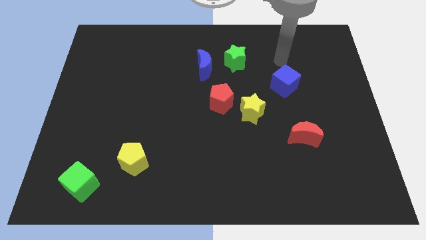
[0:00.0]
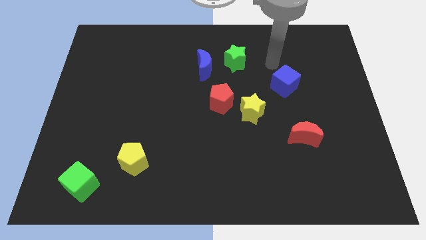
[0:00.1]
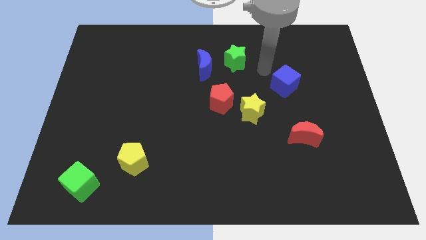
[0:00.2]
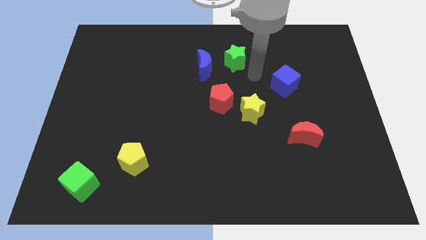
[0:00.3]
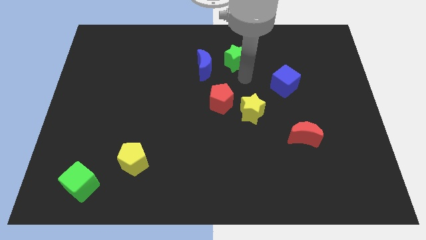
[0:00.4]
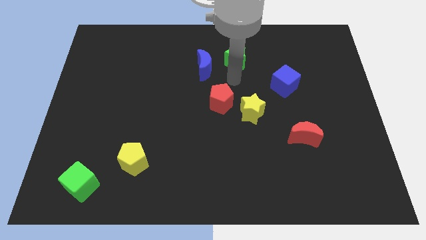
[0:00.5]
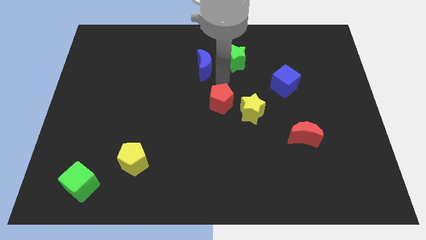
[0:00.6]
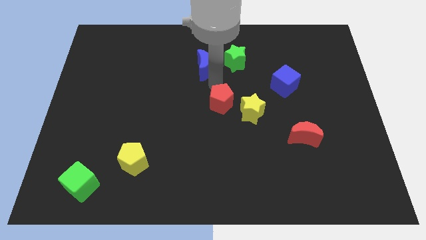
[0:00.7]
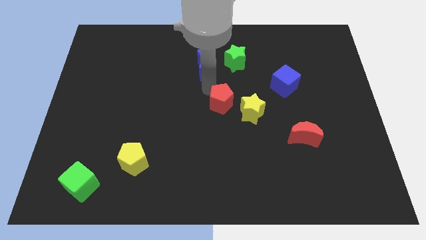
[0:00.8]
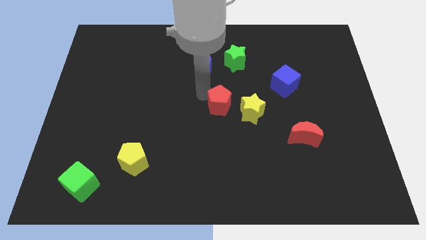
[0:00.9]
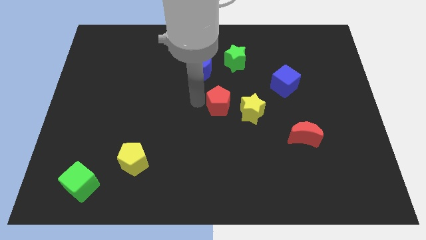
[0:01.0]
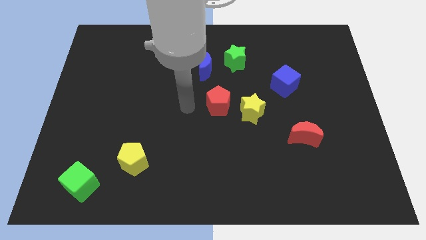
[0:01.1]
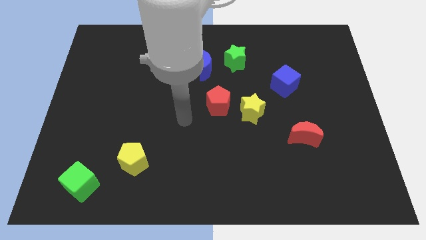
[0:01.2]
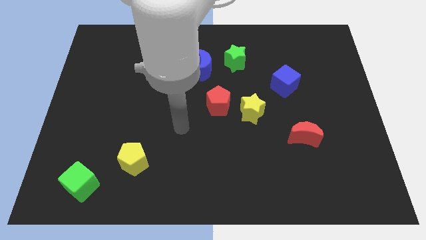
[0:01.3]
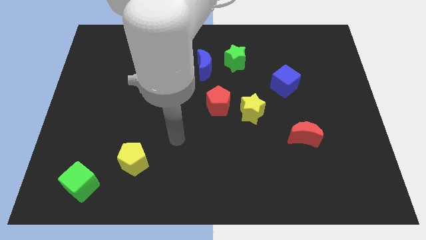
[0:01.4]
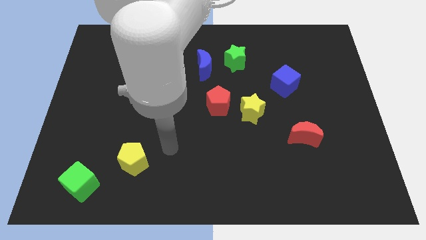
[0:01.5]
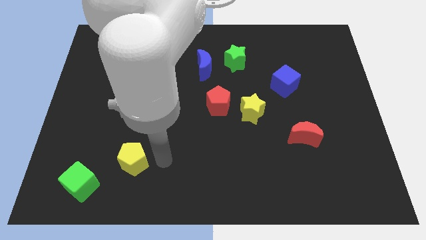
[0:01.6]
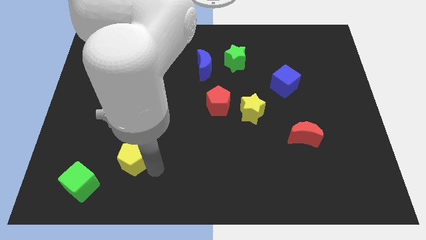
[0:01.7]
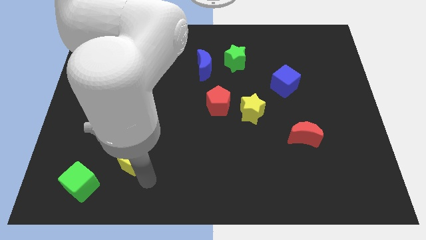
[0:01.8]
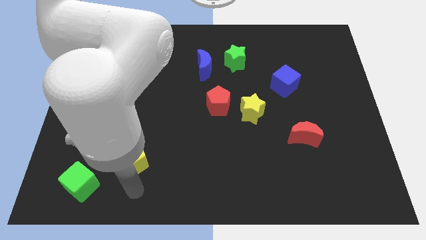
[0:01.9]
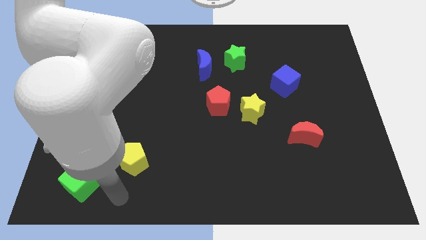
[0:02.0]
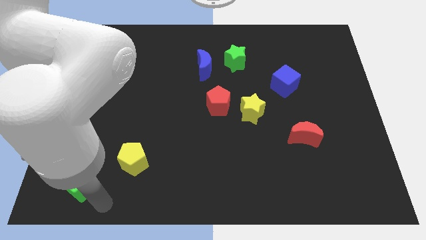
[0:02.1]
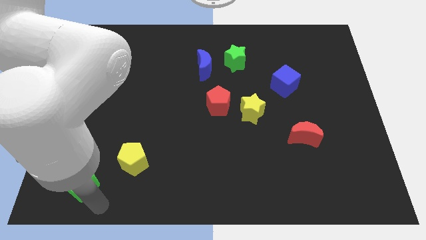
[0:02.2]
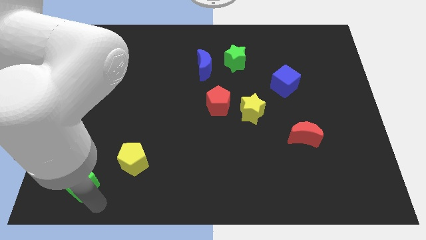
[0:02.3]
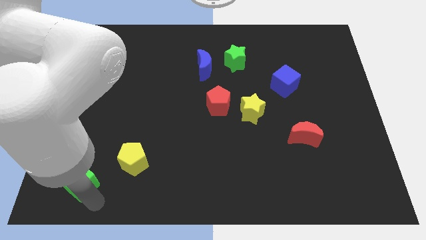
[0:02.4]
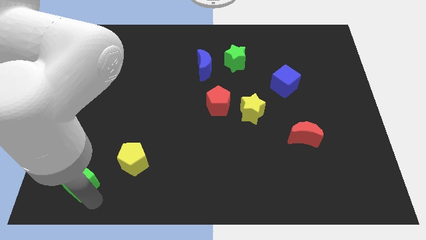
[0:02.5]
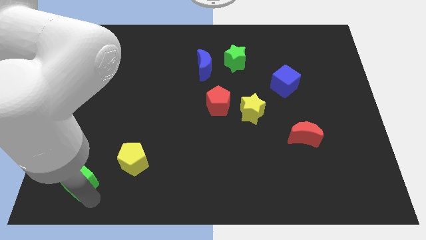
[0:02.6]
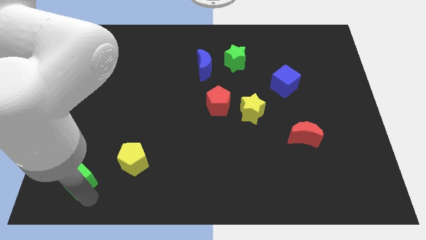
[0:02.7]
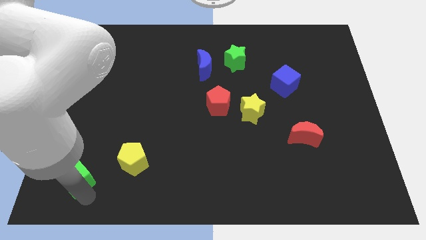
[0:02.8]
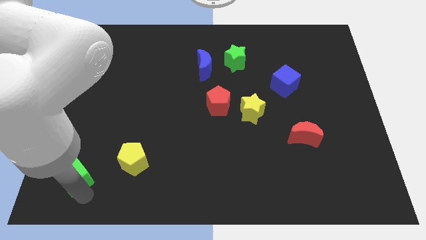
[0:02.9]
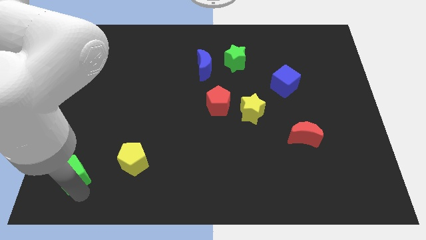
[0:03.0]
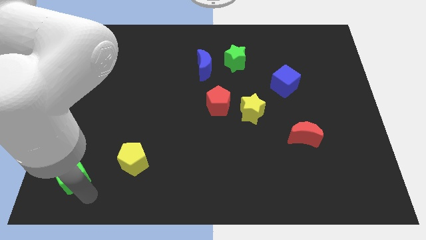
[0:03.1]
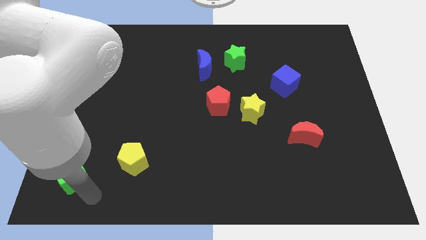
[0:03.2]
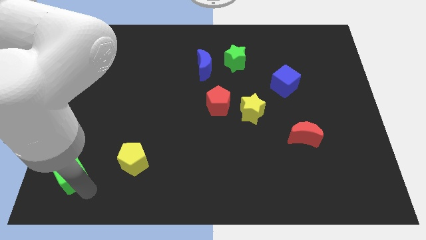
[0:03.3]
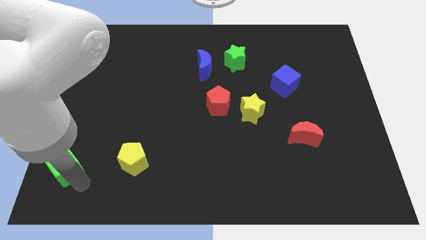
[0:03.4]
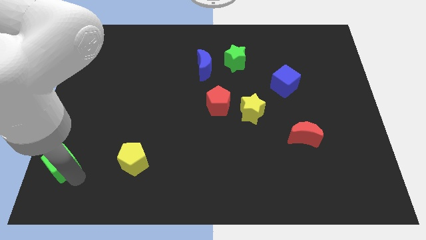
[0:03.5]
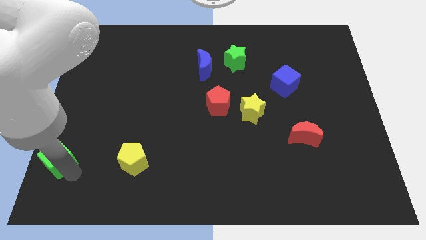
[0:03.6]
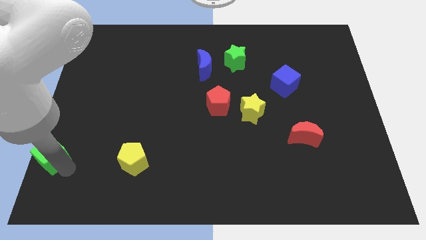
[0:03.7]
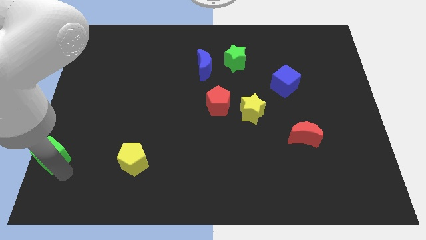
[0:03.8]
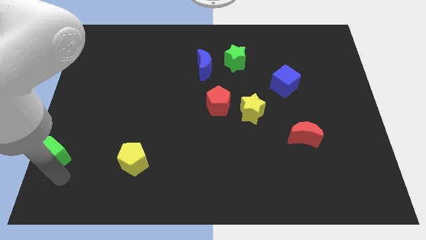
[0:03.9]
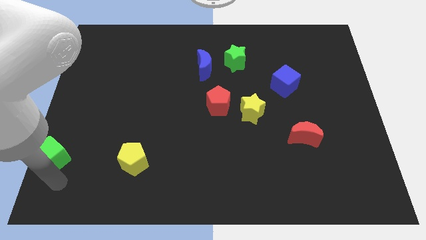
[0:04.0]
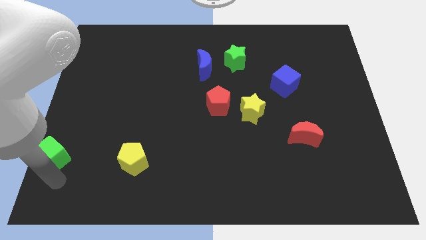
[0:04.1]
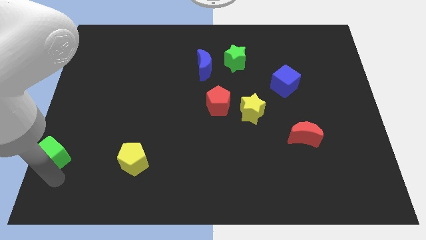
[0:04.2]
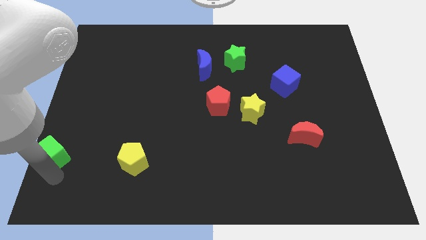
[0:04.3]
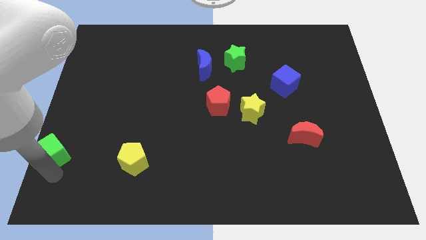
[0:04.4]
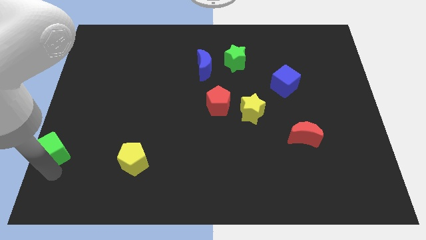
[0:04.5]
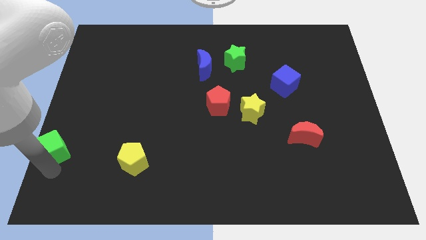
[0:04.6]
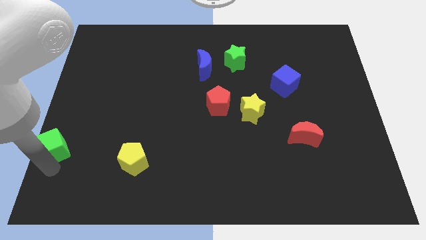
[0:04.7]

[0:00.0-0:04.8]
move the green cube to the center left

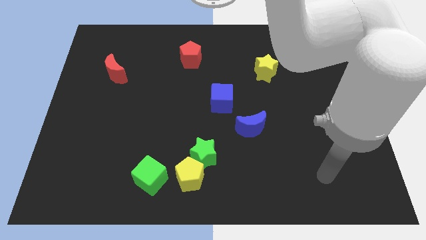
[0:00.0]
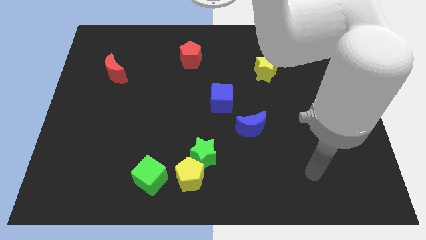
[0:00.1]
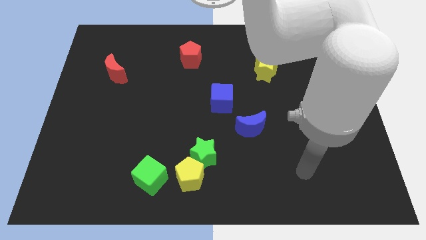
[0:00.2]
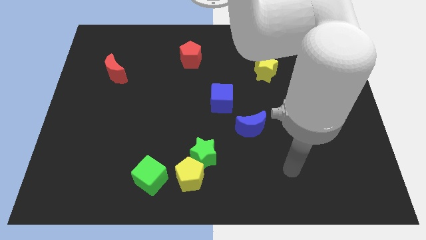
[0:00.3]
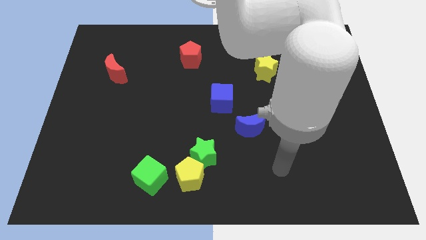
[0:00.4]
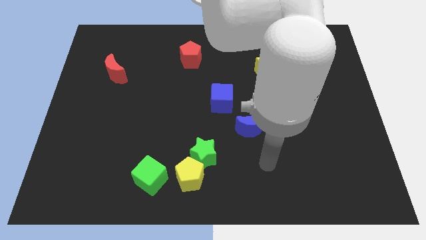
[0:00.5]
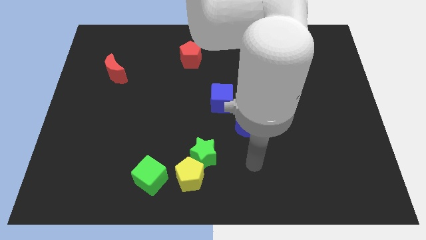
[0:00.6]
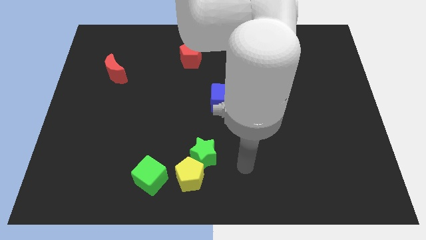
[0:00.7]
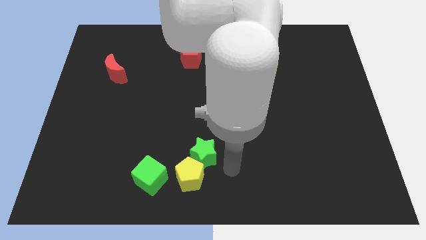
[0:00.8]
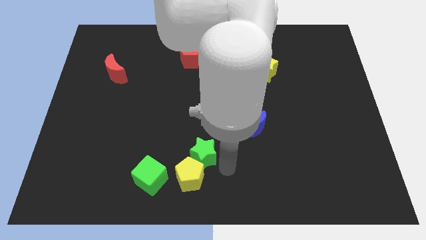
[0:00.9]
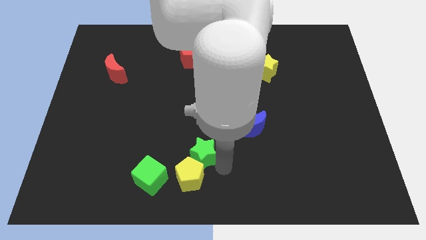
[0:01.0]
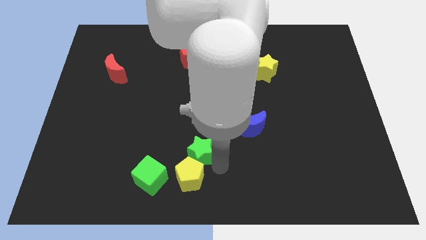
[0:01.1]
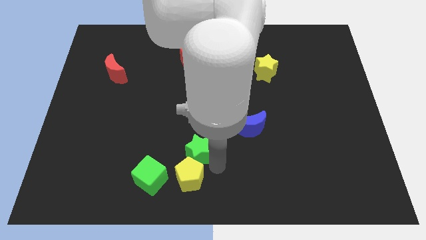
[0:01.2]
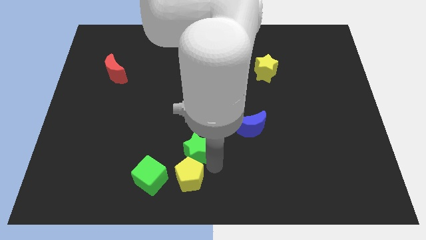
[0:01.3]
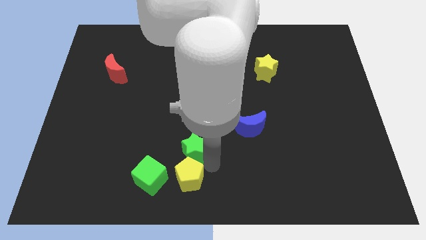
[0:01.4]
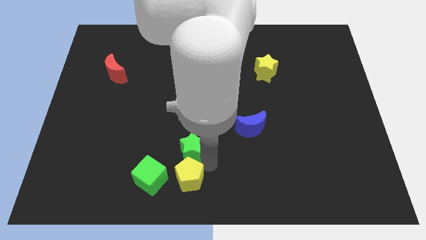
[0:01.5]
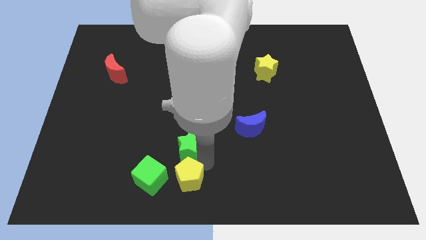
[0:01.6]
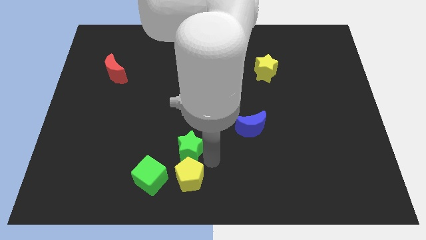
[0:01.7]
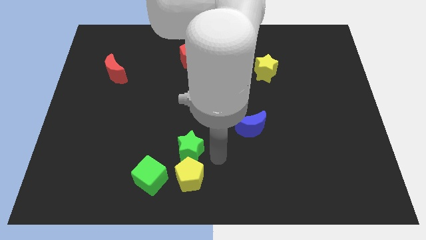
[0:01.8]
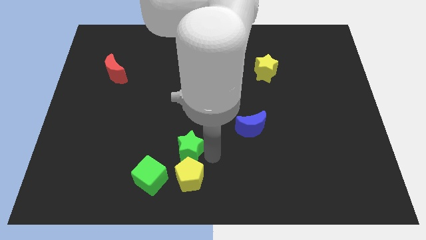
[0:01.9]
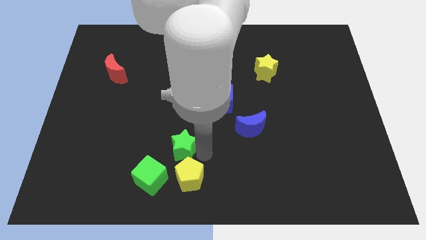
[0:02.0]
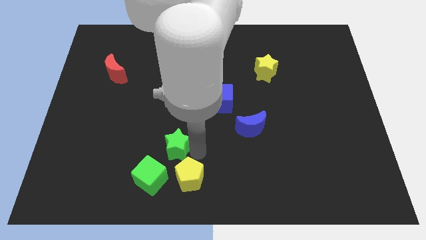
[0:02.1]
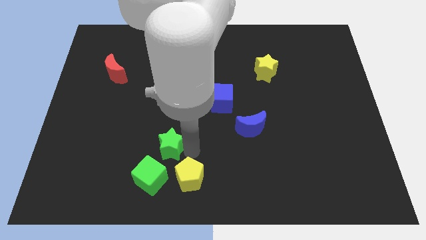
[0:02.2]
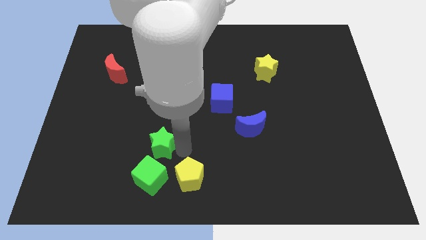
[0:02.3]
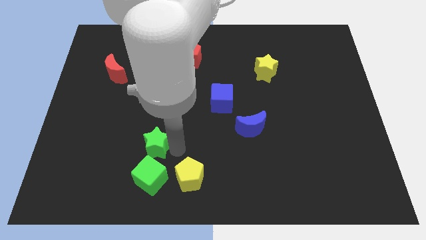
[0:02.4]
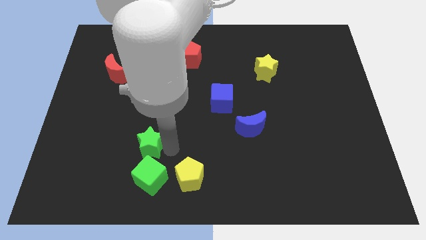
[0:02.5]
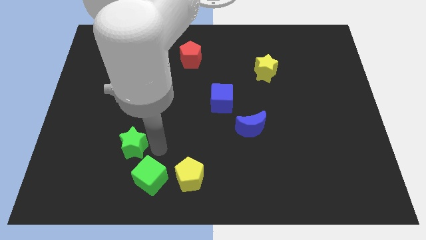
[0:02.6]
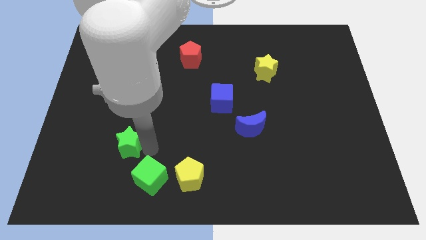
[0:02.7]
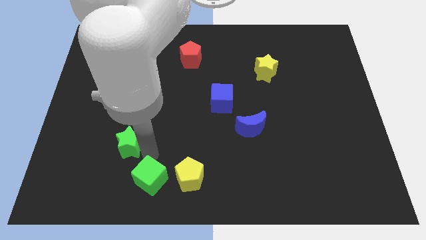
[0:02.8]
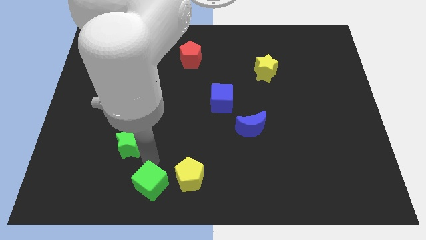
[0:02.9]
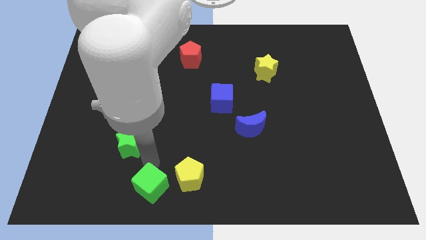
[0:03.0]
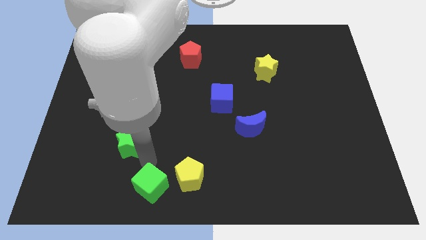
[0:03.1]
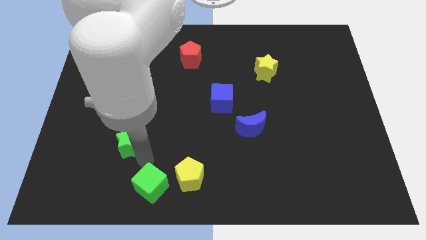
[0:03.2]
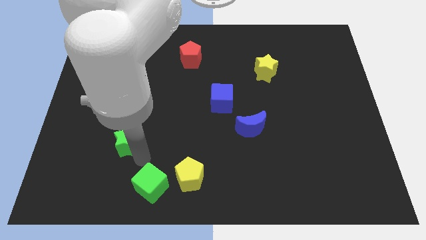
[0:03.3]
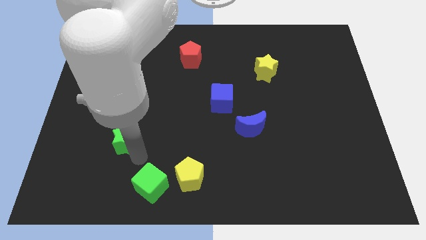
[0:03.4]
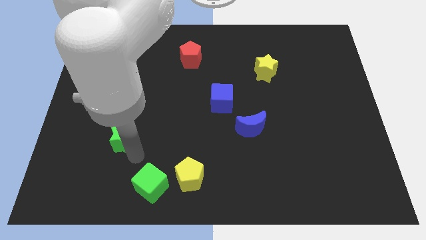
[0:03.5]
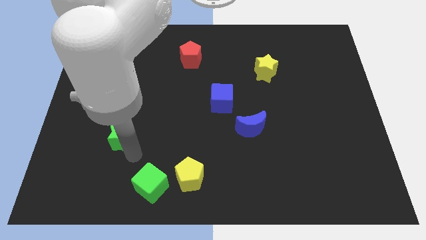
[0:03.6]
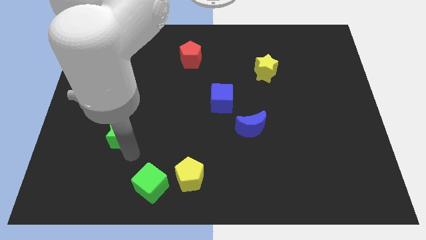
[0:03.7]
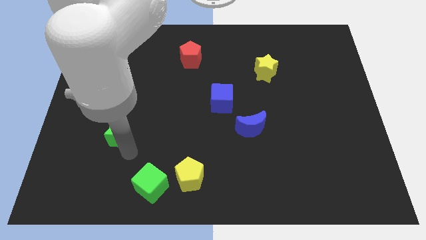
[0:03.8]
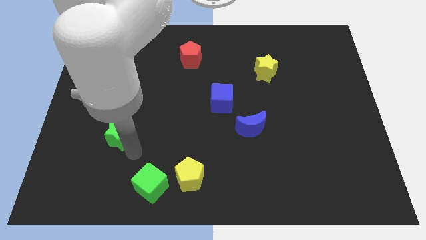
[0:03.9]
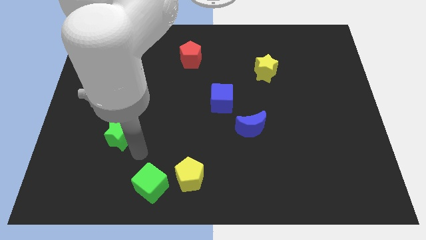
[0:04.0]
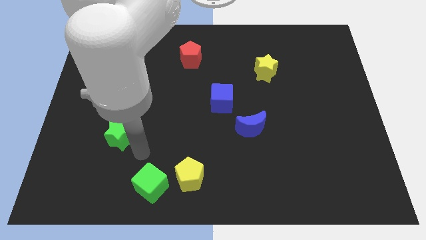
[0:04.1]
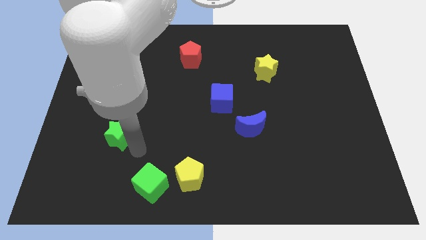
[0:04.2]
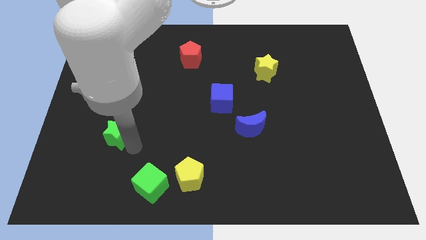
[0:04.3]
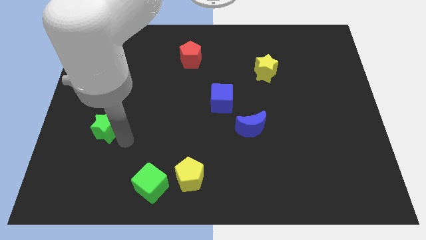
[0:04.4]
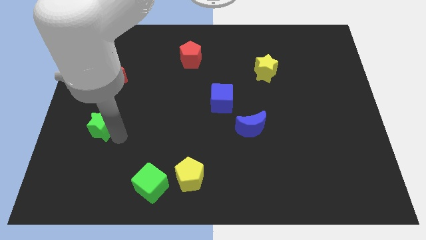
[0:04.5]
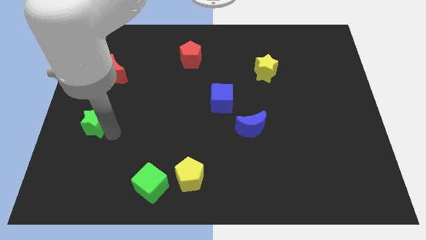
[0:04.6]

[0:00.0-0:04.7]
put the green star to the left side of the board
